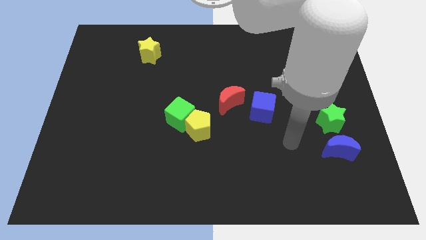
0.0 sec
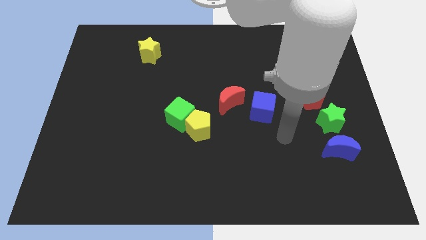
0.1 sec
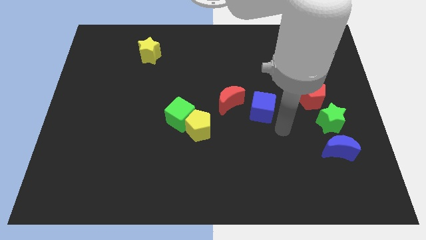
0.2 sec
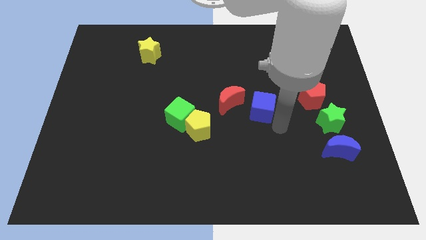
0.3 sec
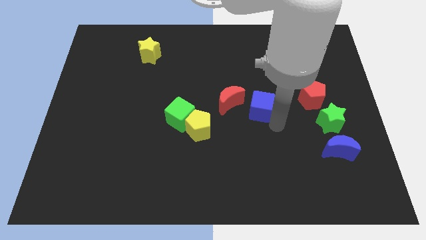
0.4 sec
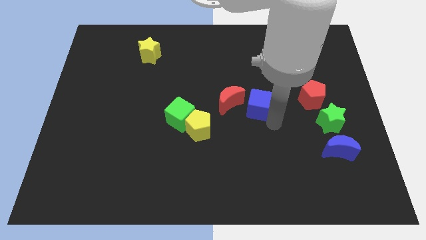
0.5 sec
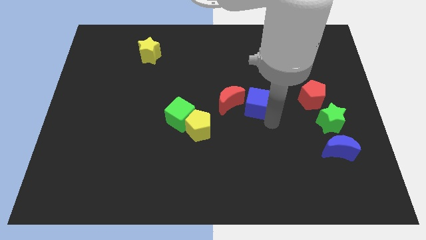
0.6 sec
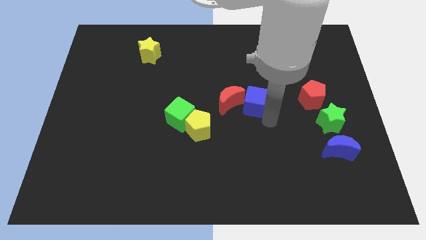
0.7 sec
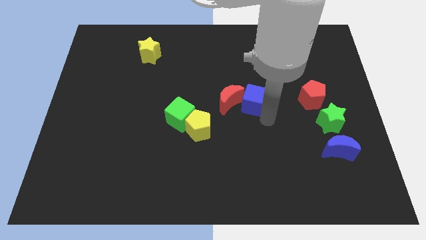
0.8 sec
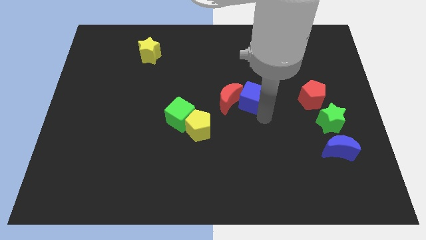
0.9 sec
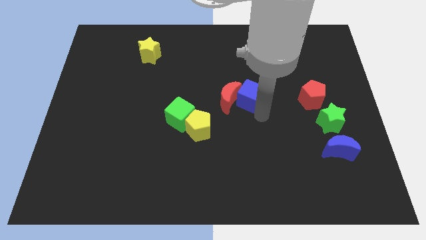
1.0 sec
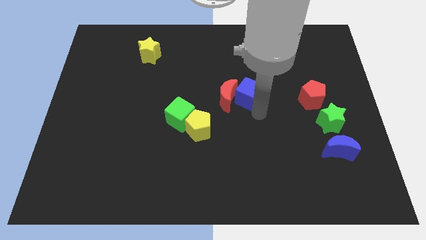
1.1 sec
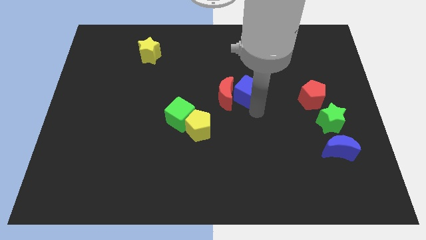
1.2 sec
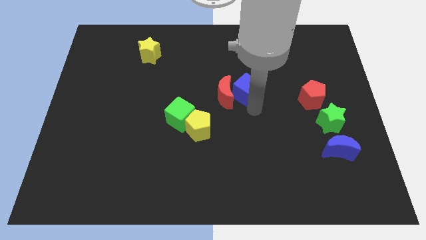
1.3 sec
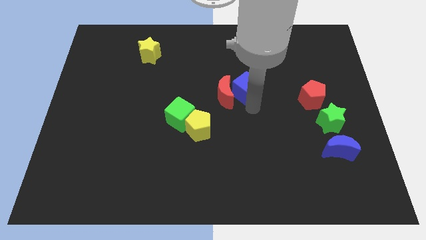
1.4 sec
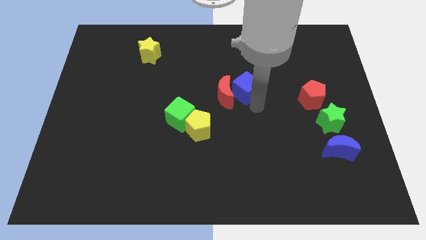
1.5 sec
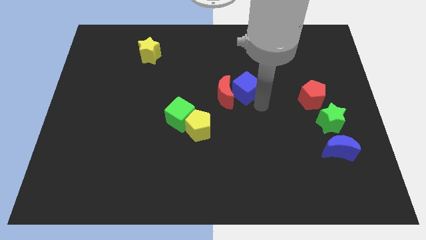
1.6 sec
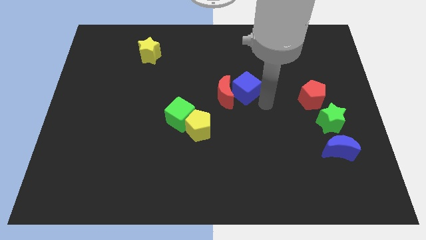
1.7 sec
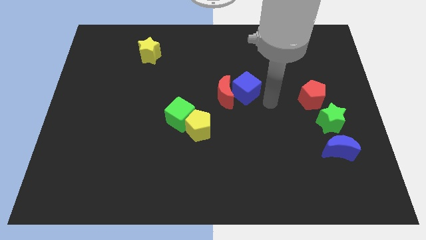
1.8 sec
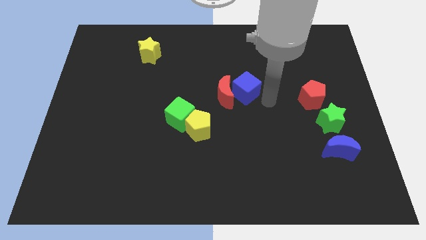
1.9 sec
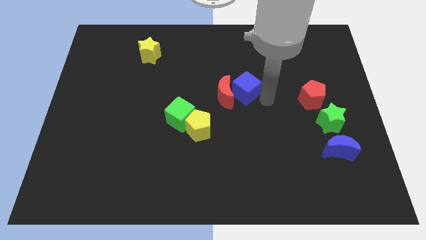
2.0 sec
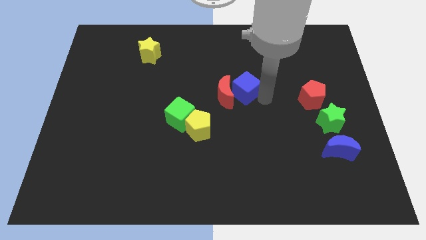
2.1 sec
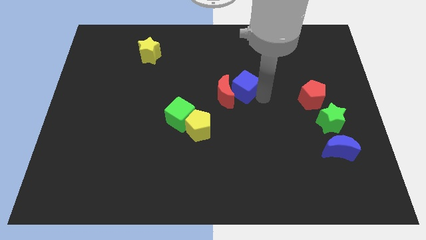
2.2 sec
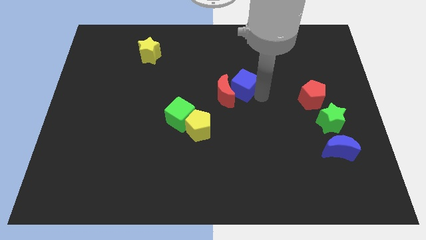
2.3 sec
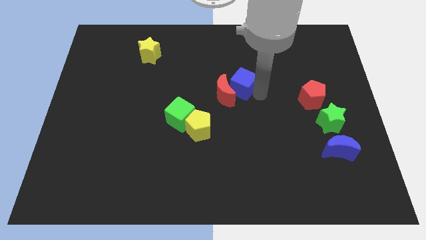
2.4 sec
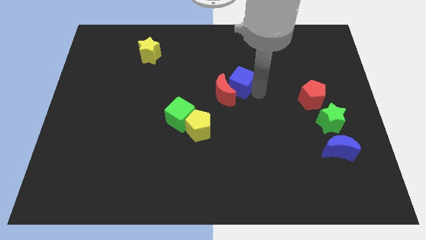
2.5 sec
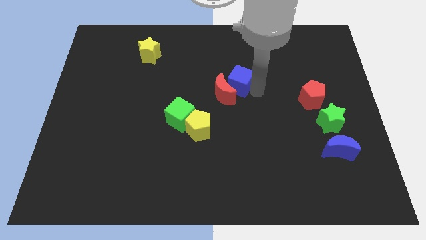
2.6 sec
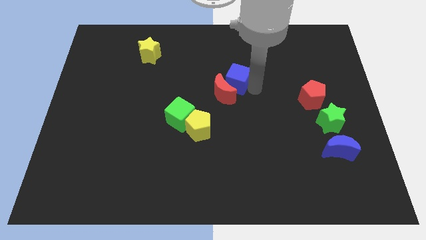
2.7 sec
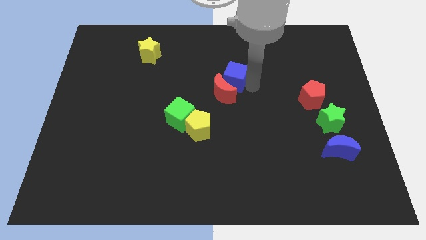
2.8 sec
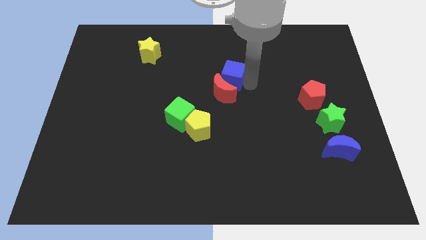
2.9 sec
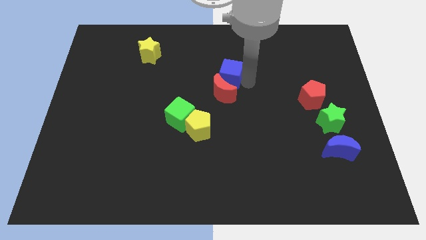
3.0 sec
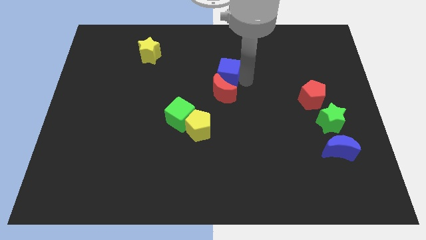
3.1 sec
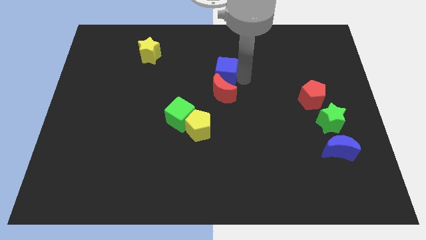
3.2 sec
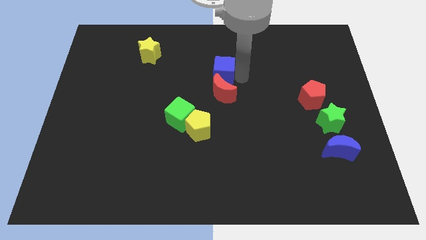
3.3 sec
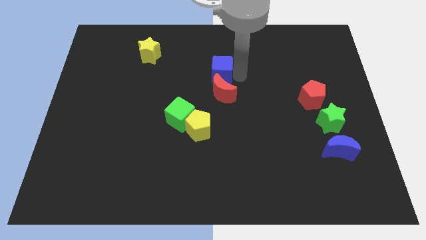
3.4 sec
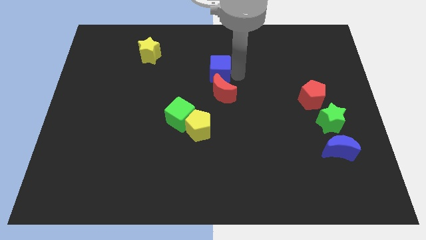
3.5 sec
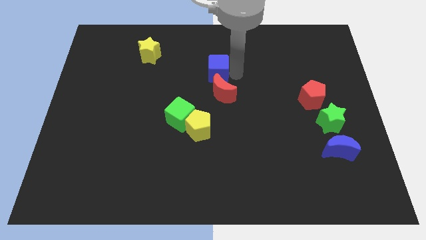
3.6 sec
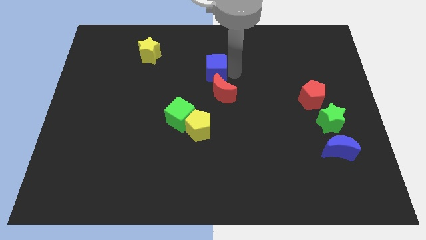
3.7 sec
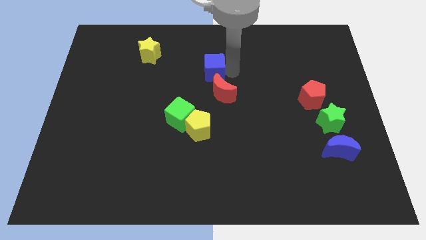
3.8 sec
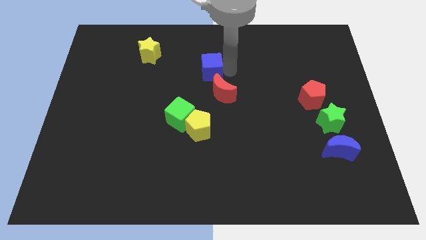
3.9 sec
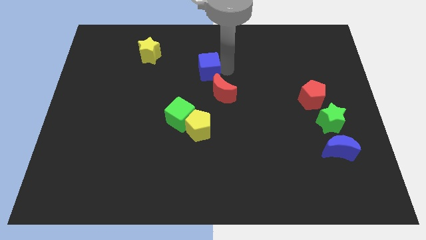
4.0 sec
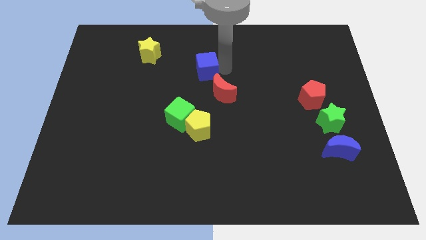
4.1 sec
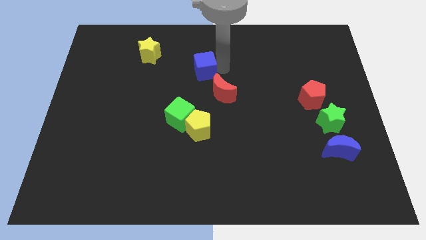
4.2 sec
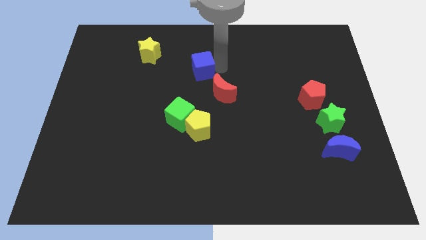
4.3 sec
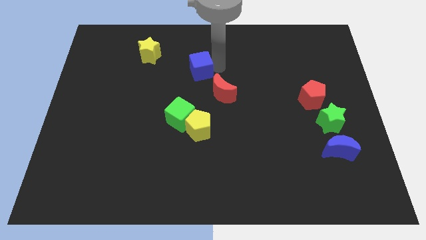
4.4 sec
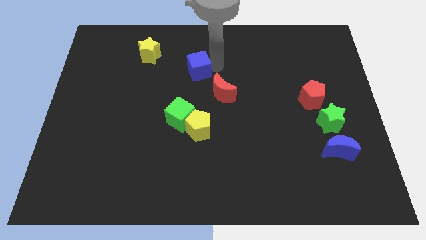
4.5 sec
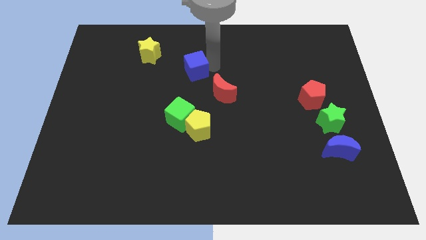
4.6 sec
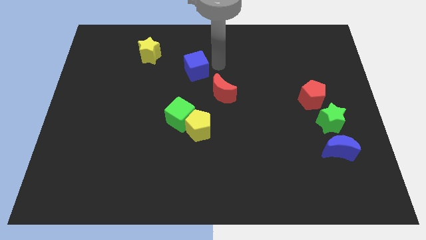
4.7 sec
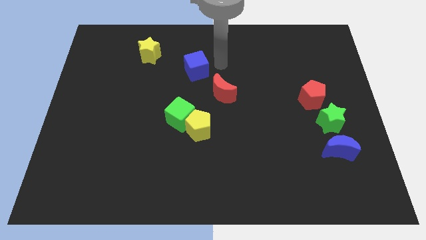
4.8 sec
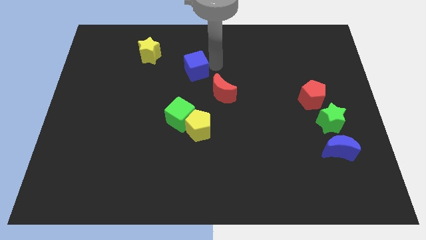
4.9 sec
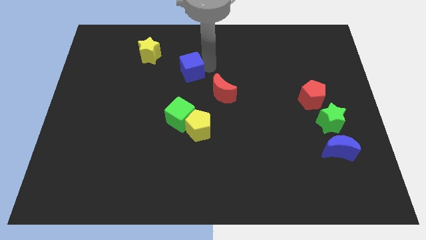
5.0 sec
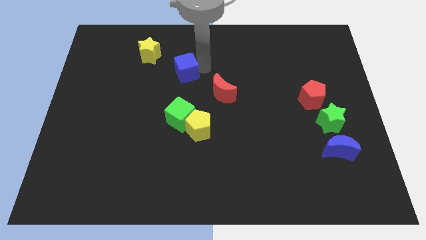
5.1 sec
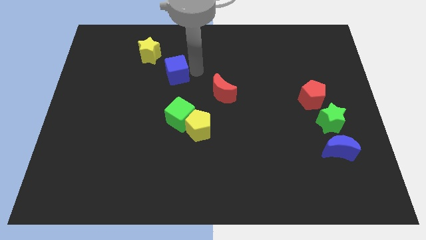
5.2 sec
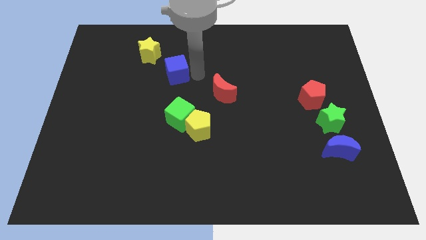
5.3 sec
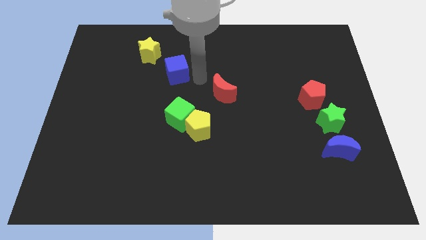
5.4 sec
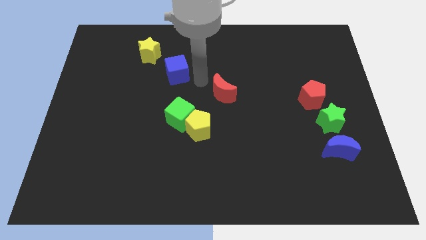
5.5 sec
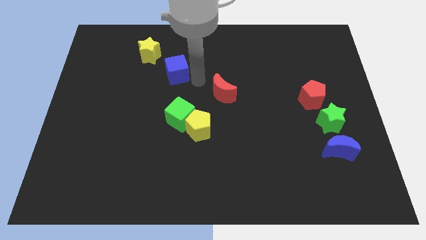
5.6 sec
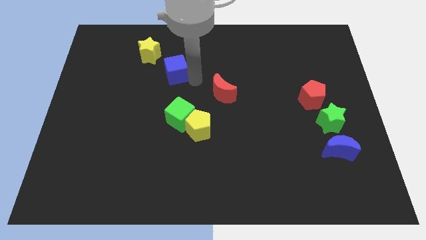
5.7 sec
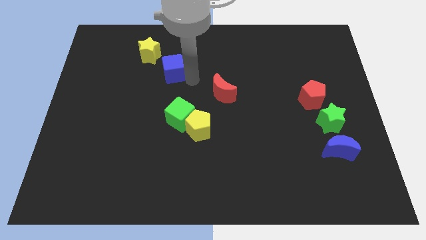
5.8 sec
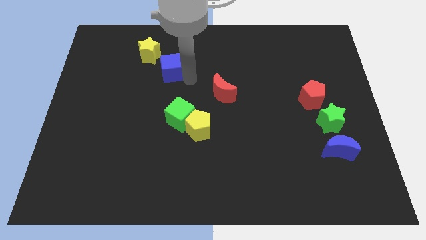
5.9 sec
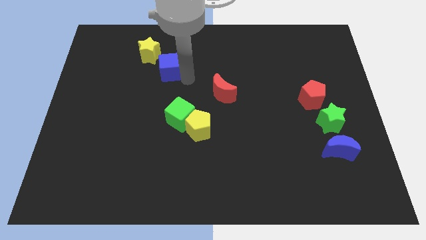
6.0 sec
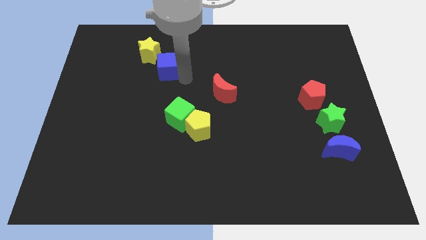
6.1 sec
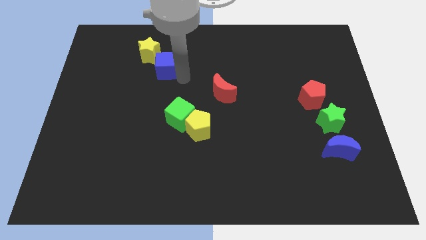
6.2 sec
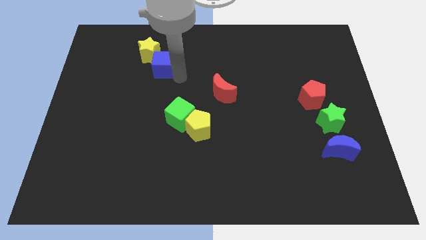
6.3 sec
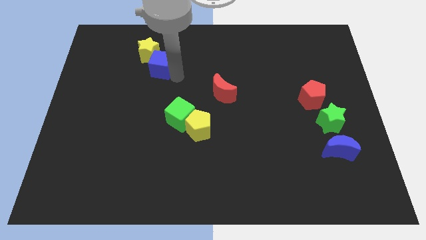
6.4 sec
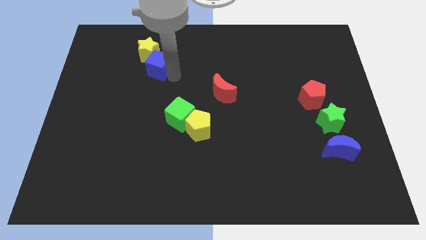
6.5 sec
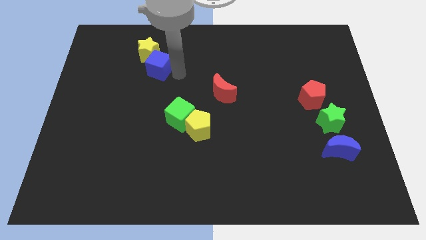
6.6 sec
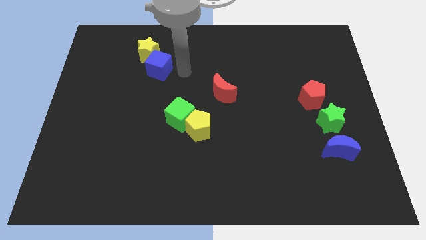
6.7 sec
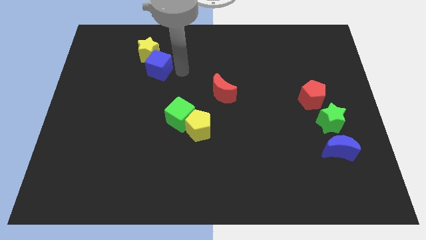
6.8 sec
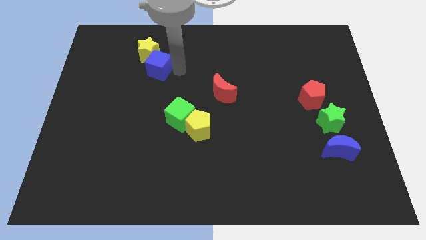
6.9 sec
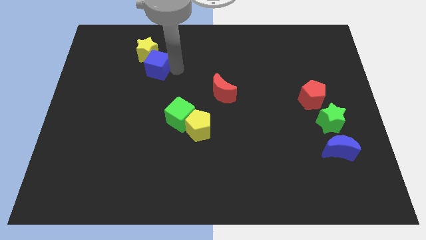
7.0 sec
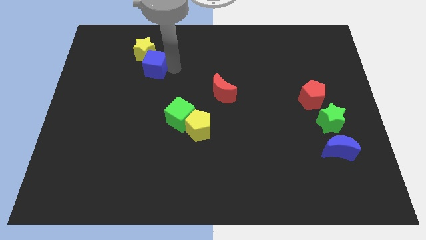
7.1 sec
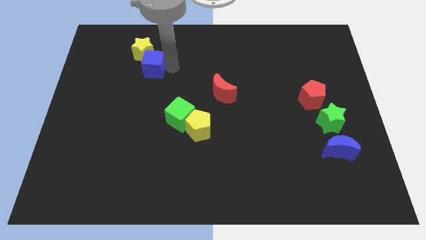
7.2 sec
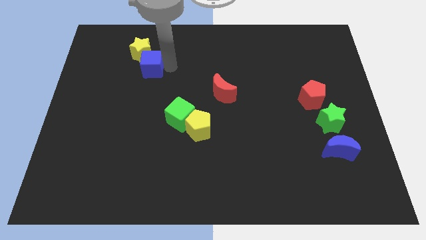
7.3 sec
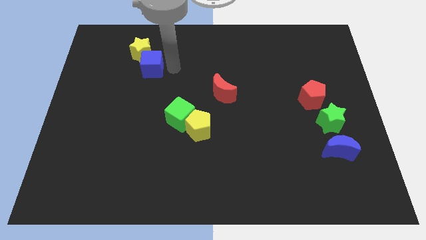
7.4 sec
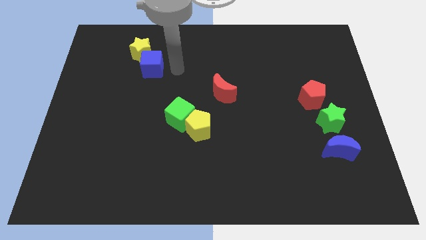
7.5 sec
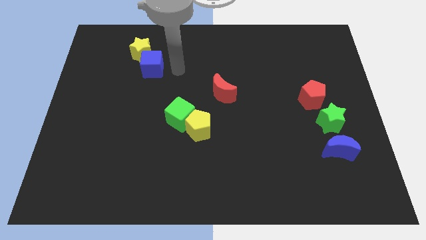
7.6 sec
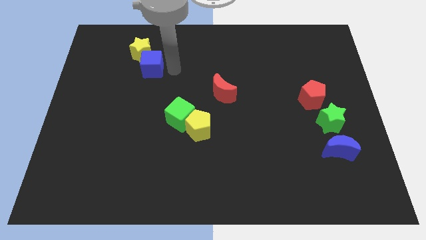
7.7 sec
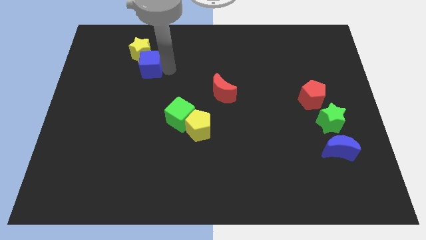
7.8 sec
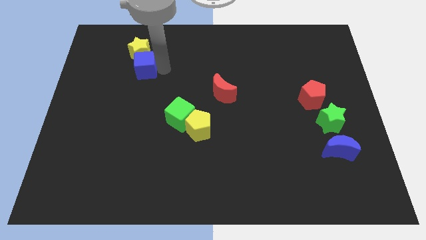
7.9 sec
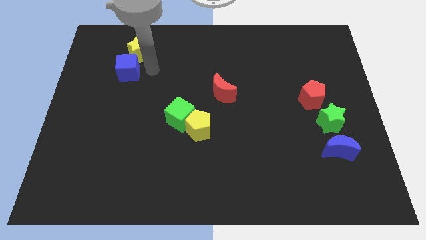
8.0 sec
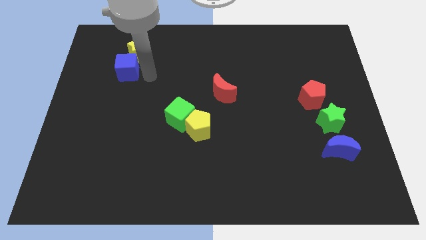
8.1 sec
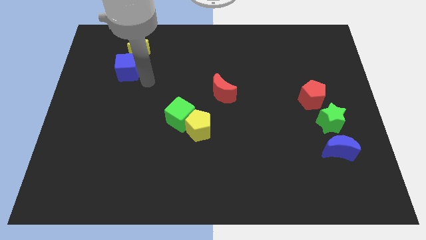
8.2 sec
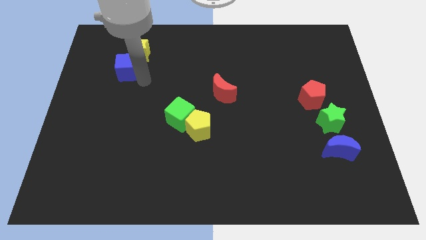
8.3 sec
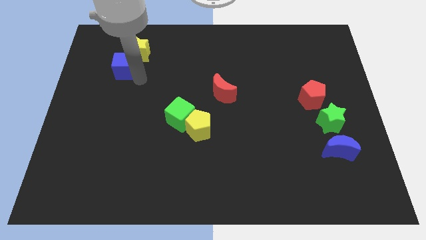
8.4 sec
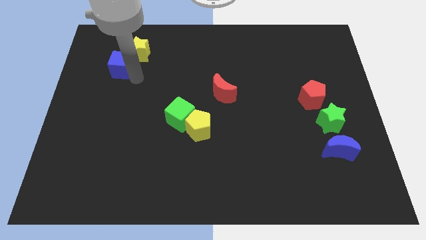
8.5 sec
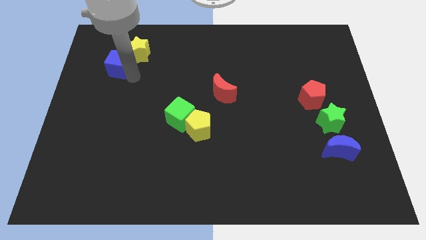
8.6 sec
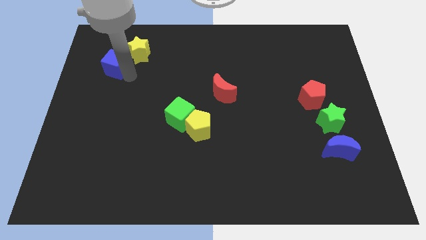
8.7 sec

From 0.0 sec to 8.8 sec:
put the blue cube to the left side of the yellow star

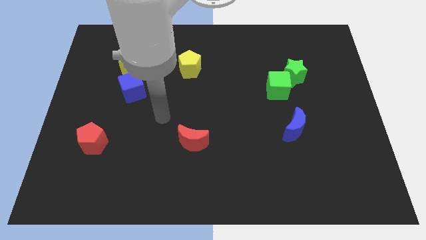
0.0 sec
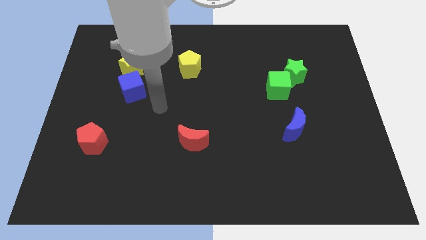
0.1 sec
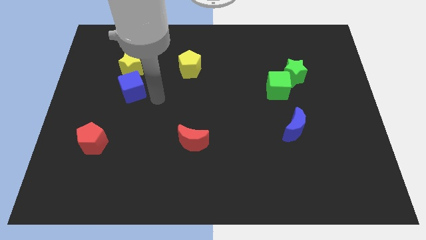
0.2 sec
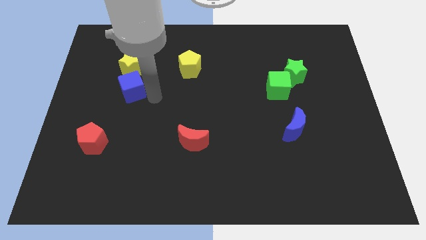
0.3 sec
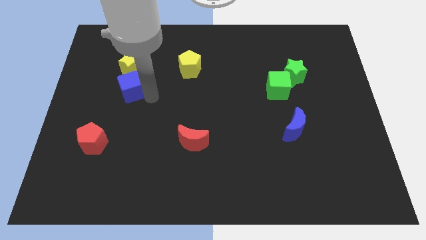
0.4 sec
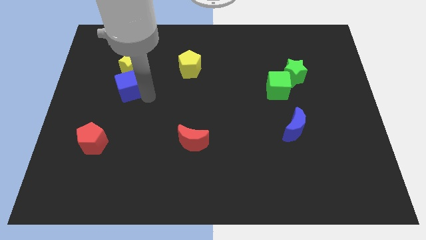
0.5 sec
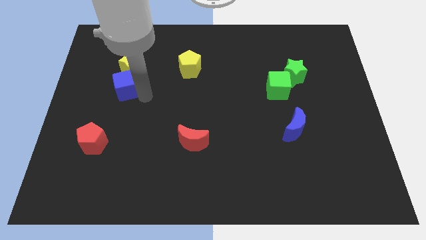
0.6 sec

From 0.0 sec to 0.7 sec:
put the blue cube diagonally down and to the left of the yellow star
